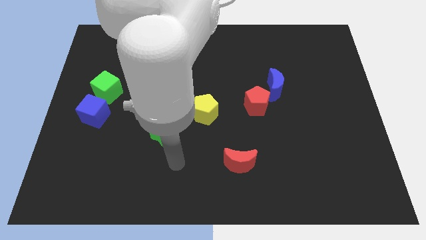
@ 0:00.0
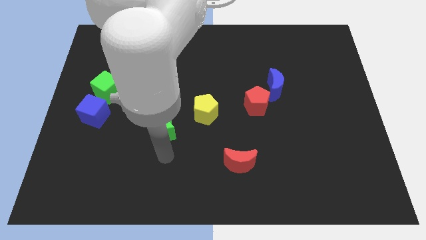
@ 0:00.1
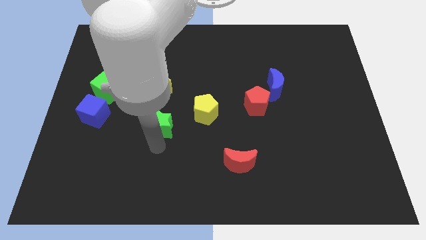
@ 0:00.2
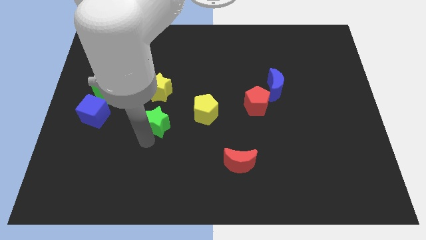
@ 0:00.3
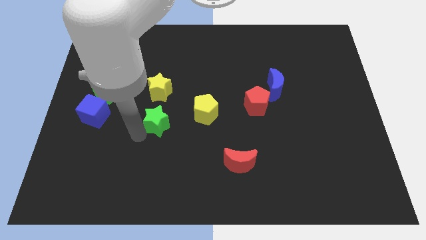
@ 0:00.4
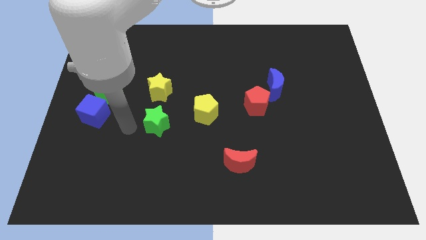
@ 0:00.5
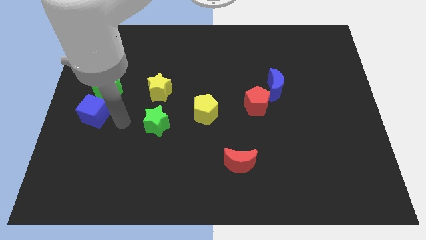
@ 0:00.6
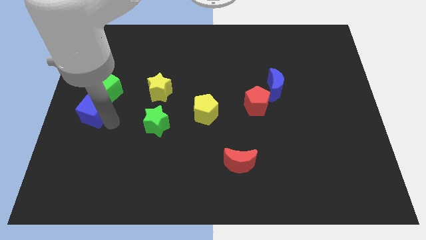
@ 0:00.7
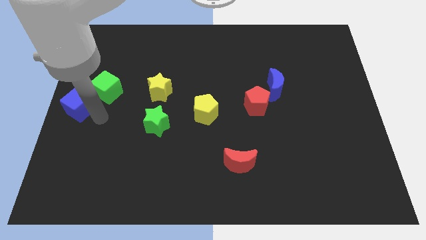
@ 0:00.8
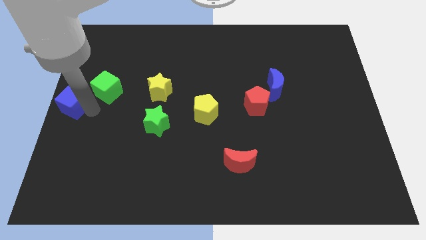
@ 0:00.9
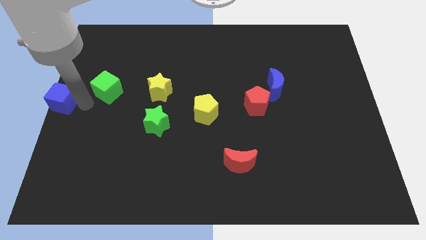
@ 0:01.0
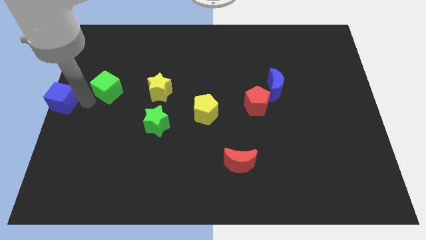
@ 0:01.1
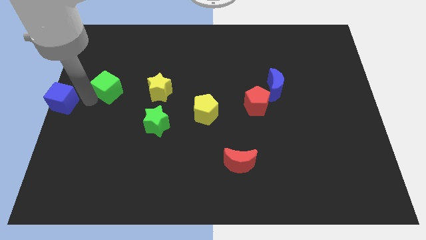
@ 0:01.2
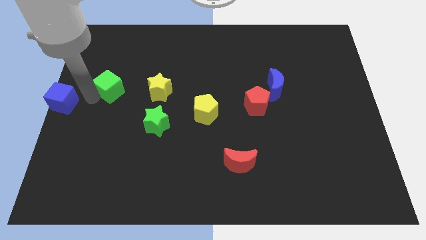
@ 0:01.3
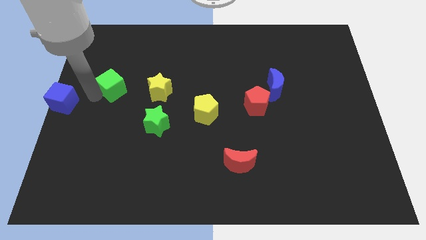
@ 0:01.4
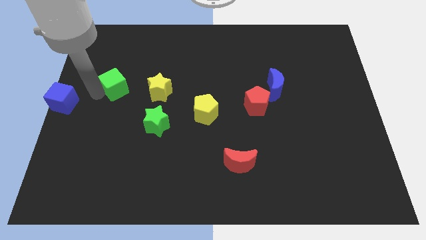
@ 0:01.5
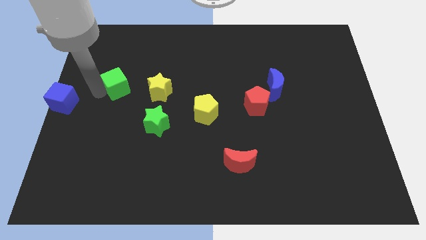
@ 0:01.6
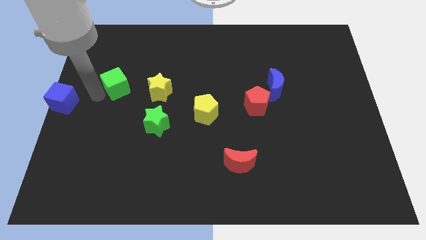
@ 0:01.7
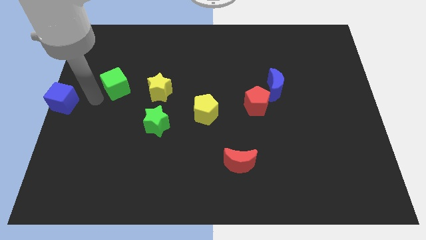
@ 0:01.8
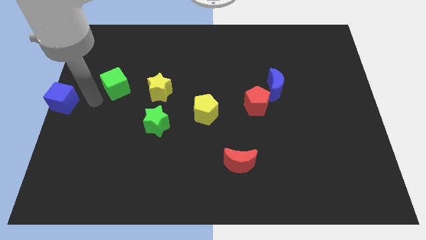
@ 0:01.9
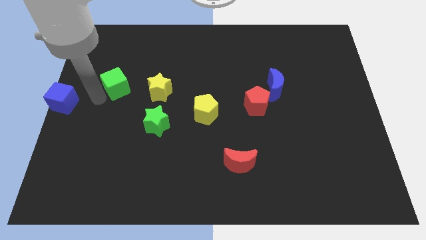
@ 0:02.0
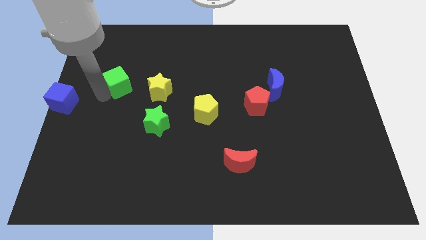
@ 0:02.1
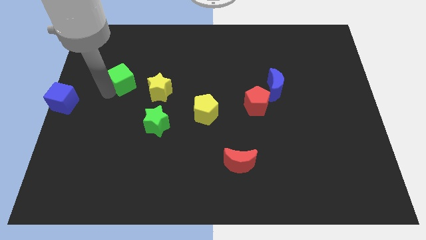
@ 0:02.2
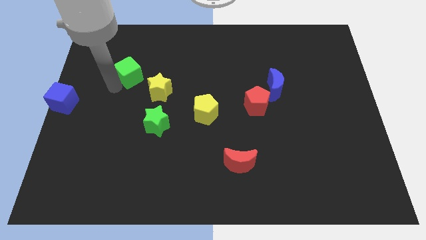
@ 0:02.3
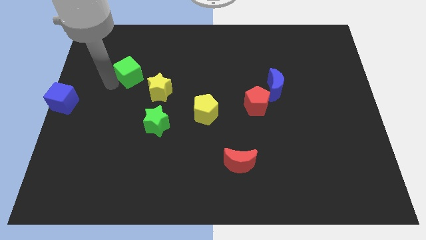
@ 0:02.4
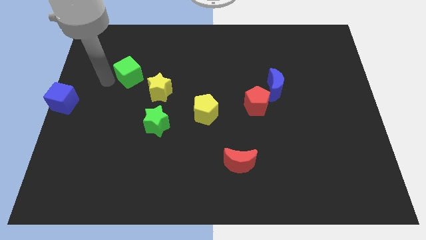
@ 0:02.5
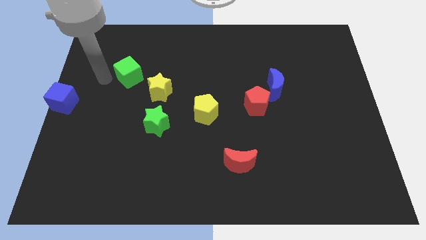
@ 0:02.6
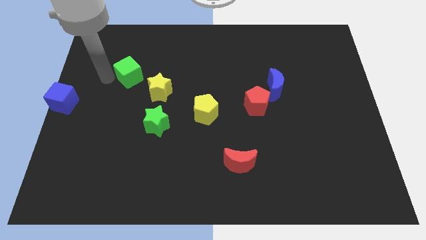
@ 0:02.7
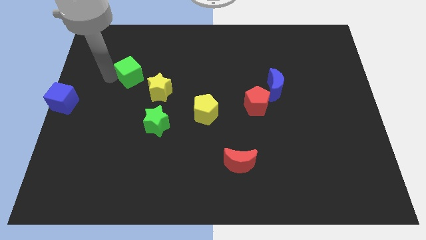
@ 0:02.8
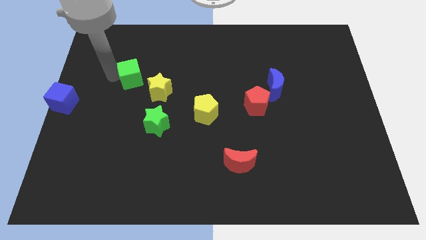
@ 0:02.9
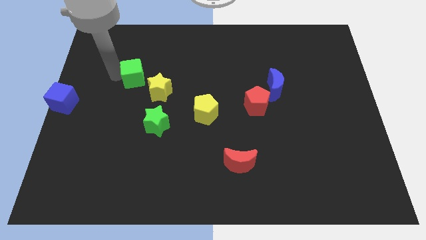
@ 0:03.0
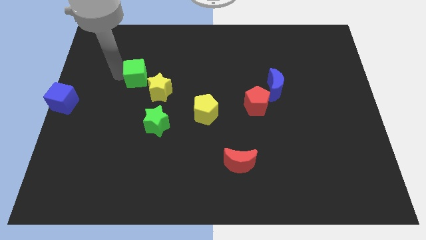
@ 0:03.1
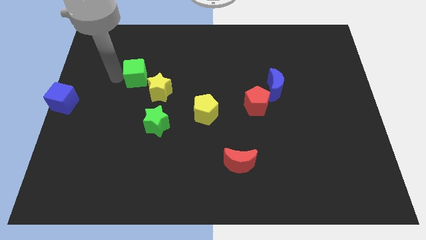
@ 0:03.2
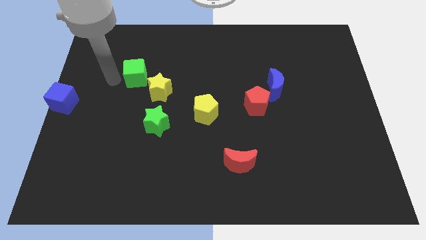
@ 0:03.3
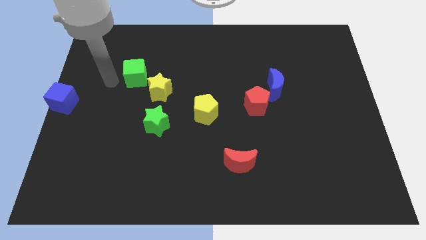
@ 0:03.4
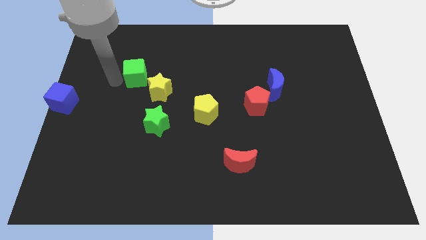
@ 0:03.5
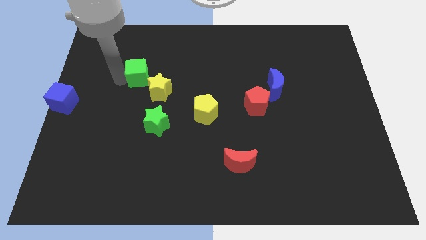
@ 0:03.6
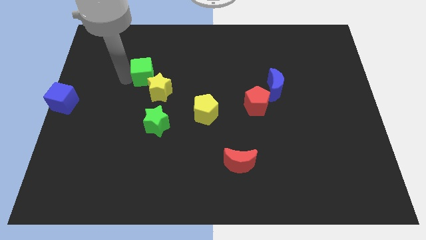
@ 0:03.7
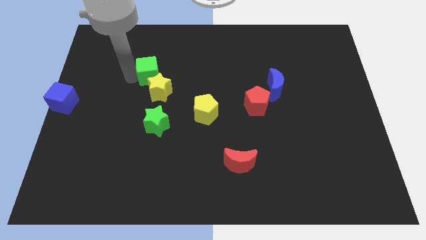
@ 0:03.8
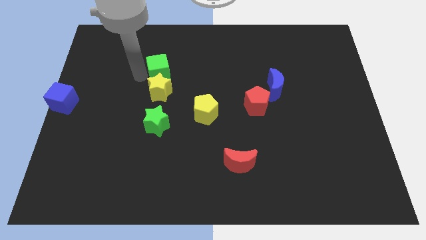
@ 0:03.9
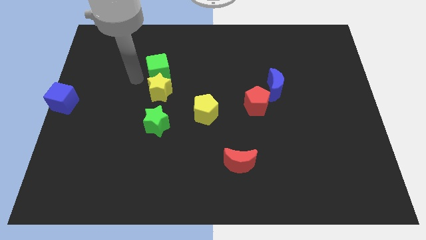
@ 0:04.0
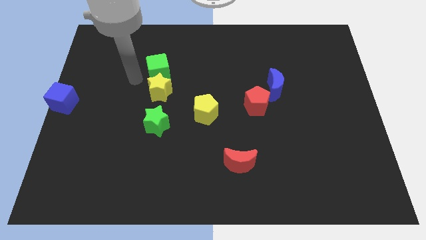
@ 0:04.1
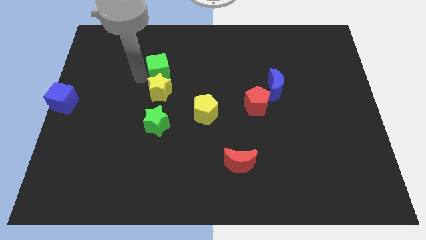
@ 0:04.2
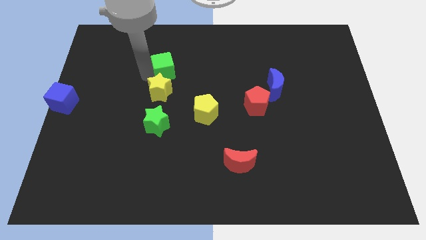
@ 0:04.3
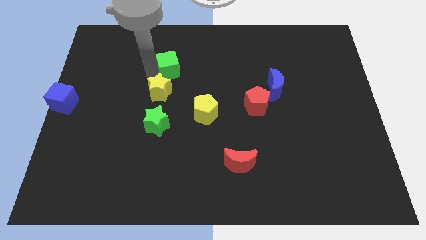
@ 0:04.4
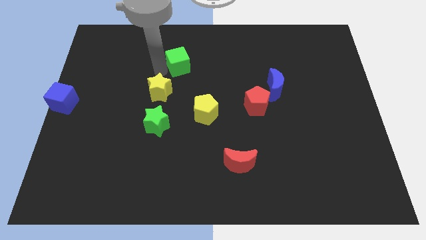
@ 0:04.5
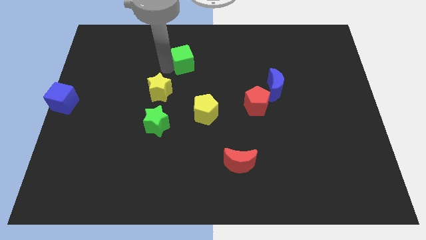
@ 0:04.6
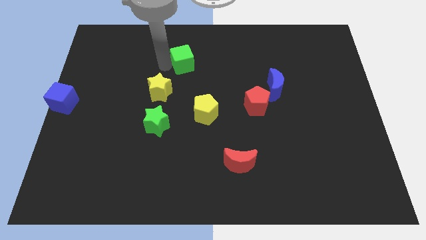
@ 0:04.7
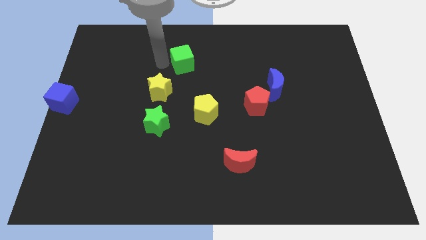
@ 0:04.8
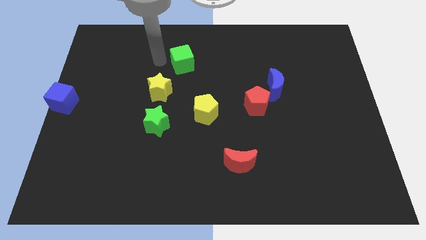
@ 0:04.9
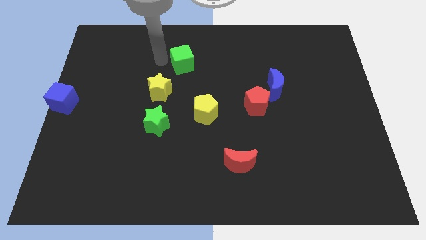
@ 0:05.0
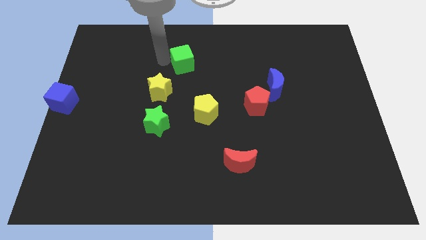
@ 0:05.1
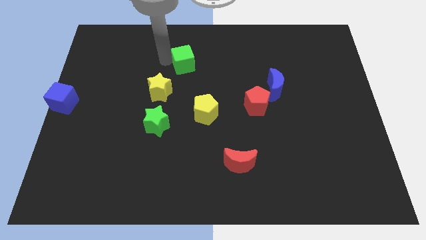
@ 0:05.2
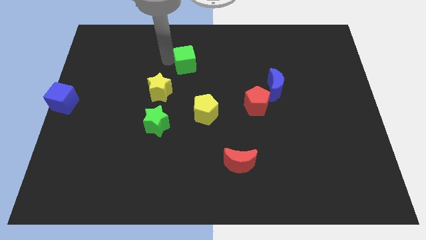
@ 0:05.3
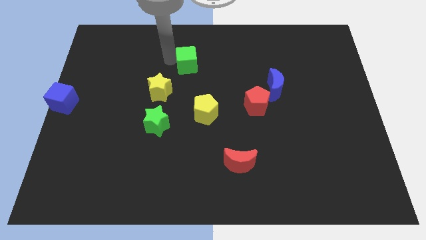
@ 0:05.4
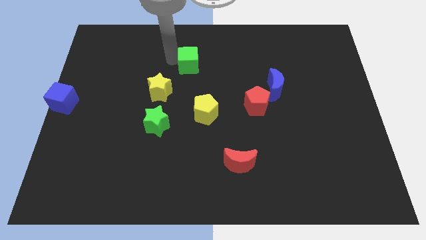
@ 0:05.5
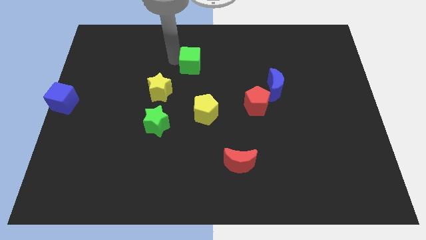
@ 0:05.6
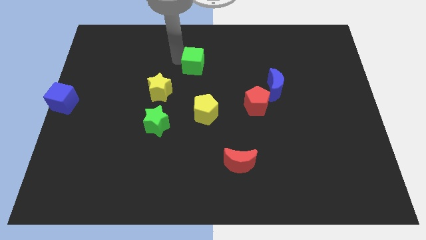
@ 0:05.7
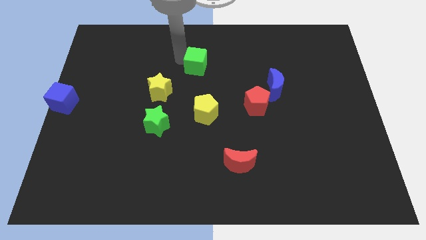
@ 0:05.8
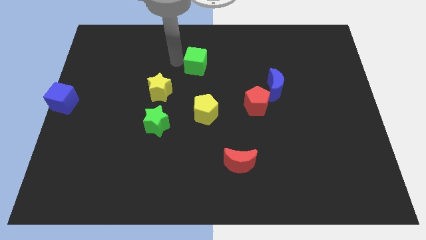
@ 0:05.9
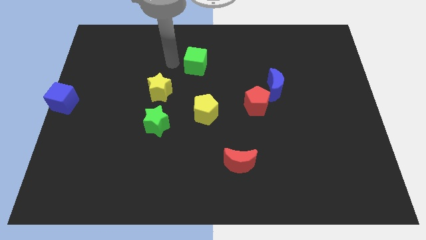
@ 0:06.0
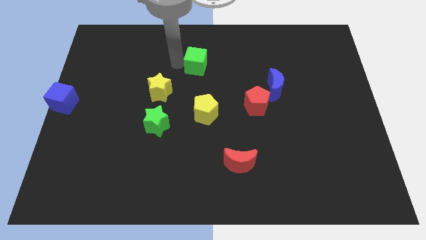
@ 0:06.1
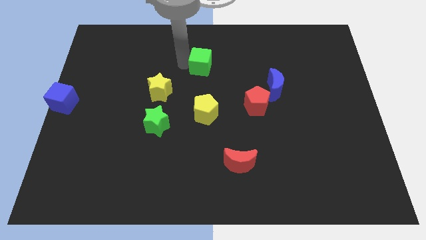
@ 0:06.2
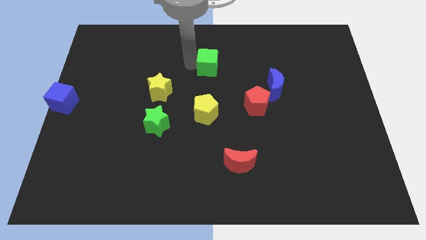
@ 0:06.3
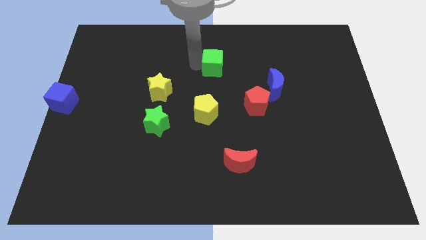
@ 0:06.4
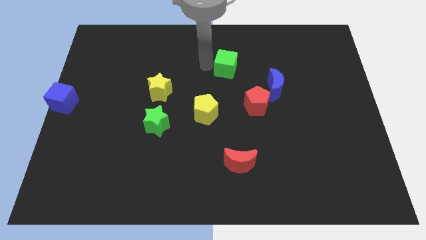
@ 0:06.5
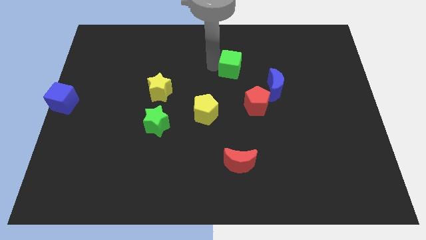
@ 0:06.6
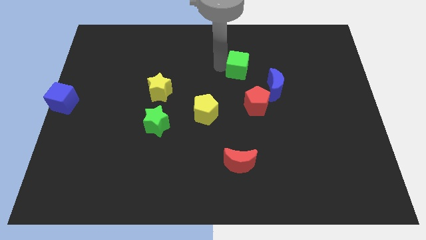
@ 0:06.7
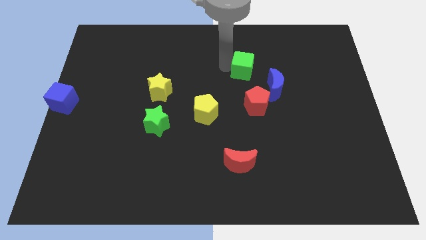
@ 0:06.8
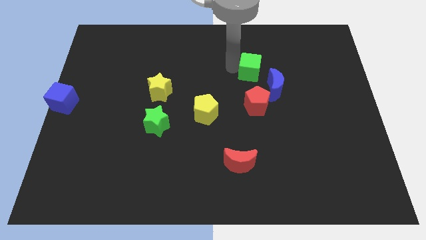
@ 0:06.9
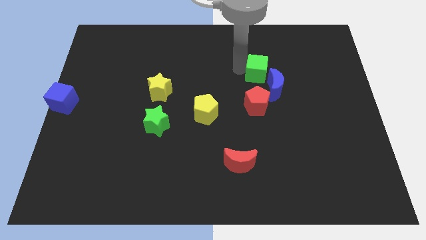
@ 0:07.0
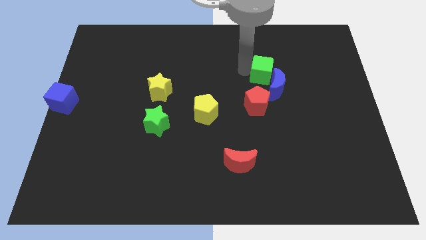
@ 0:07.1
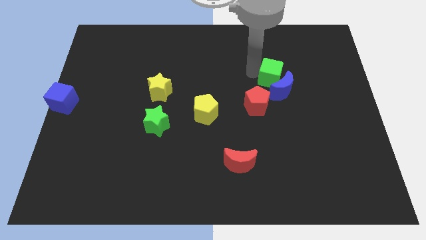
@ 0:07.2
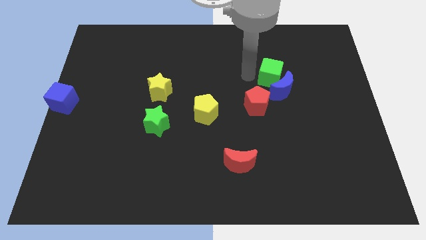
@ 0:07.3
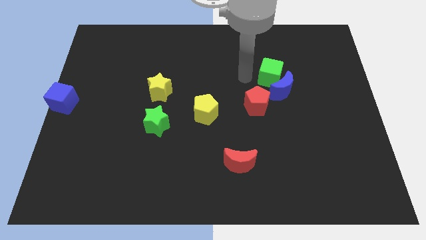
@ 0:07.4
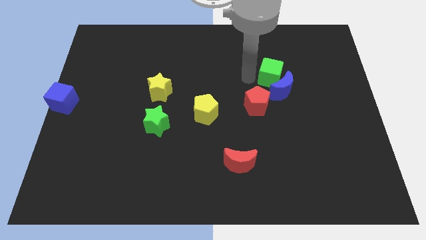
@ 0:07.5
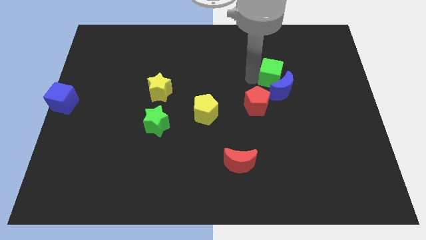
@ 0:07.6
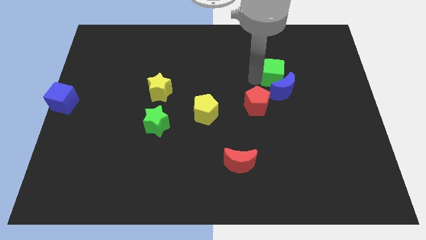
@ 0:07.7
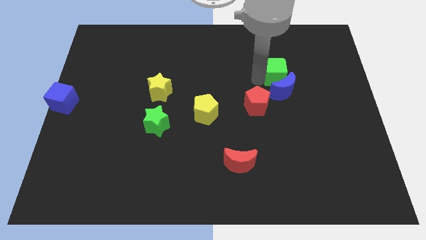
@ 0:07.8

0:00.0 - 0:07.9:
slide the green cube to the top right of the blue moon
